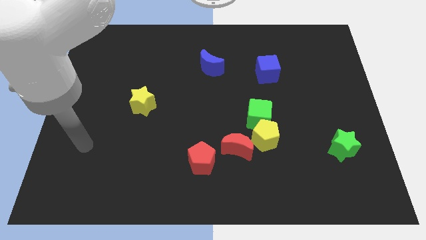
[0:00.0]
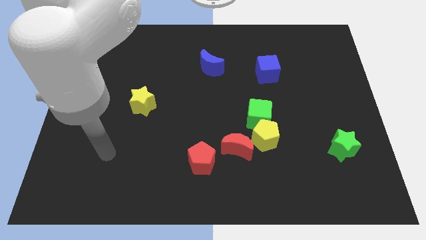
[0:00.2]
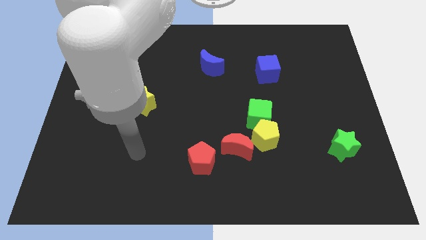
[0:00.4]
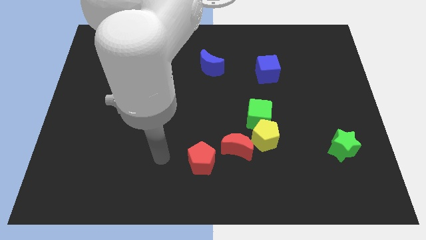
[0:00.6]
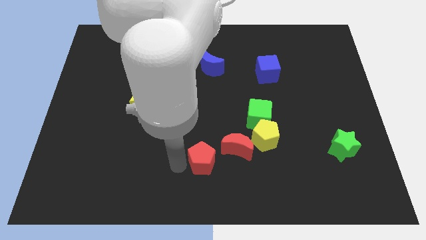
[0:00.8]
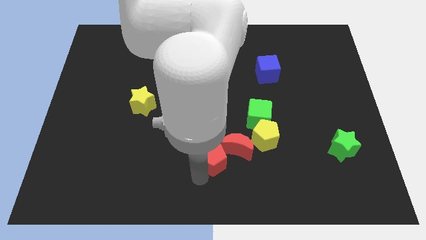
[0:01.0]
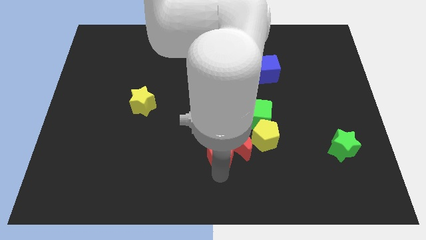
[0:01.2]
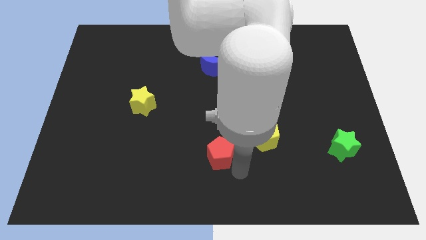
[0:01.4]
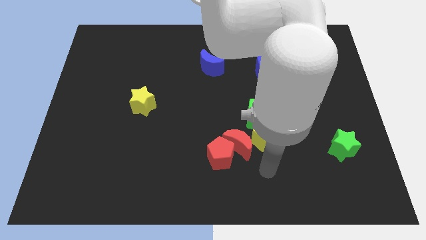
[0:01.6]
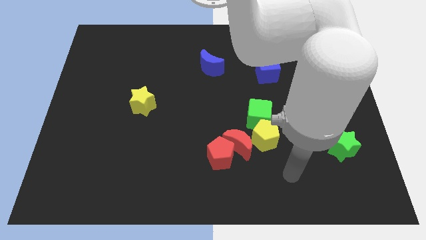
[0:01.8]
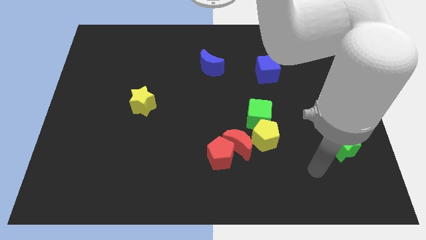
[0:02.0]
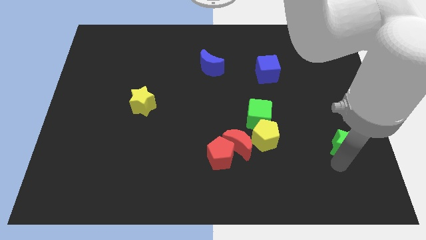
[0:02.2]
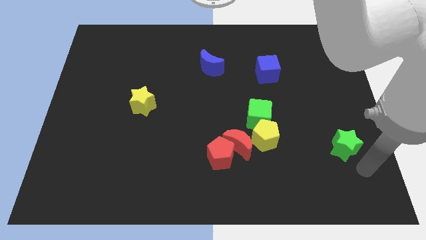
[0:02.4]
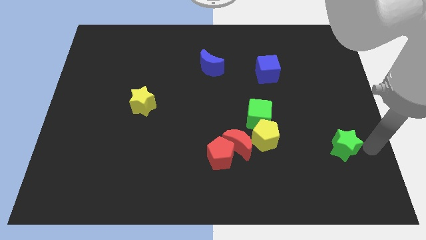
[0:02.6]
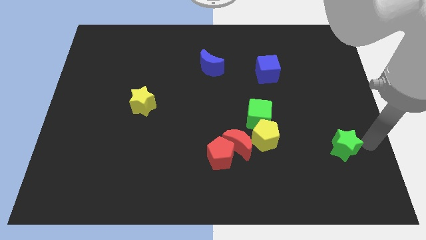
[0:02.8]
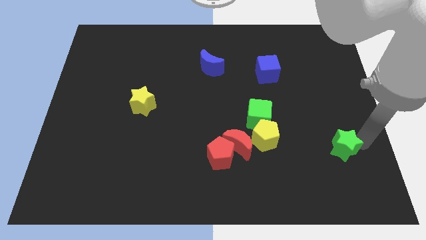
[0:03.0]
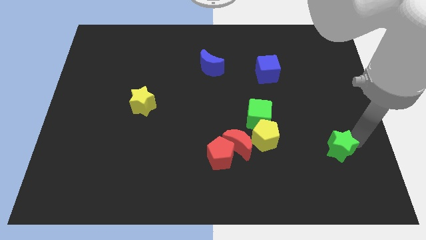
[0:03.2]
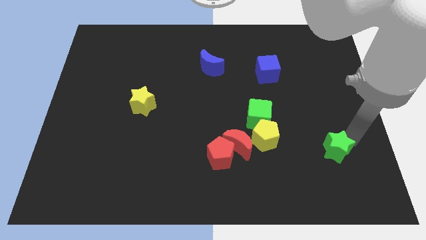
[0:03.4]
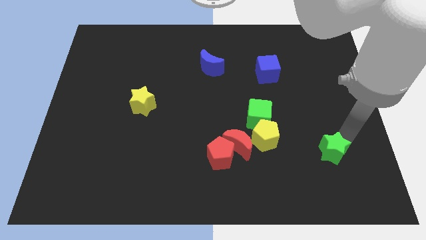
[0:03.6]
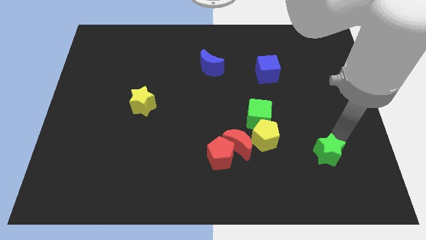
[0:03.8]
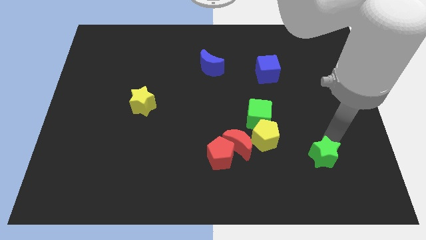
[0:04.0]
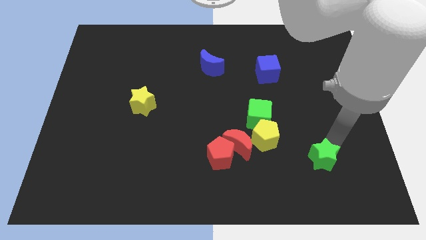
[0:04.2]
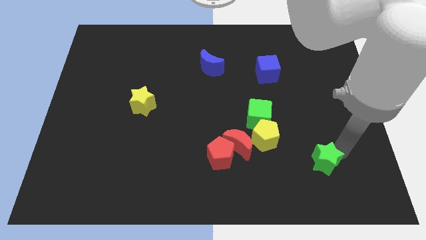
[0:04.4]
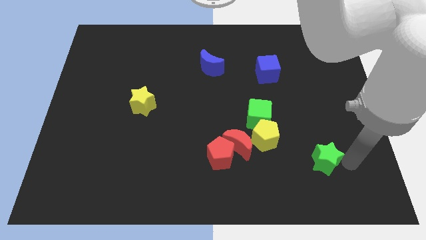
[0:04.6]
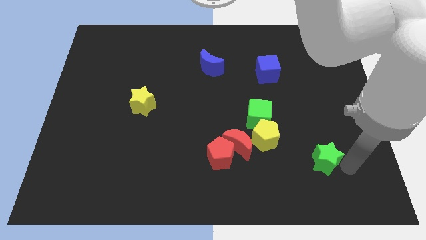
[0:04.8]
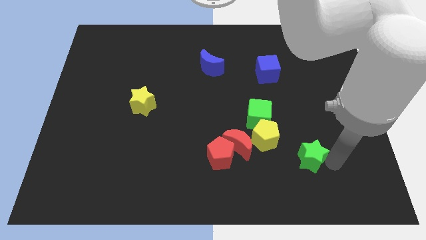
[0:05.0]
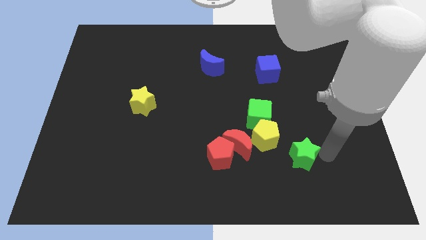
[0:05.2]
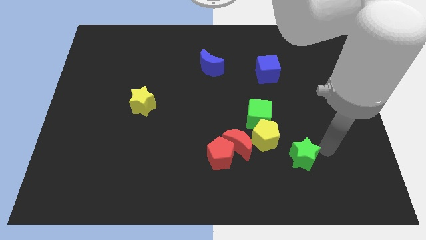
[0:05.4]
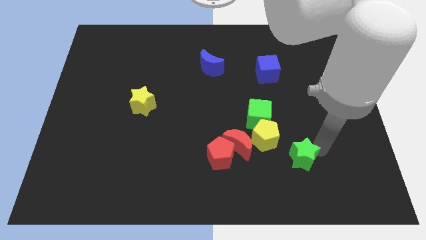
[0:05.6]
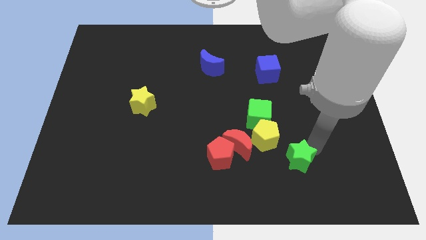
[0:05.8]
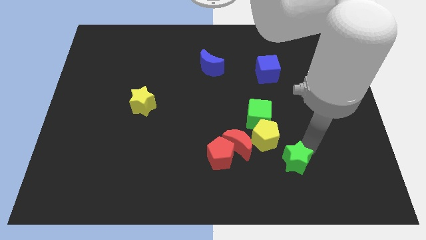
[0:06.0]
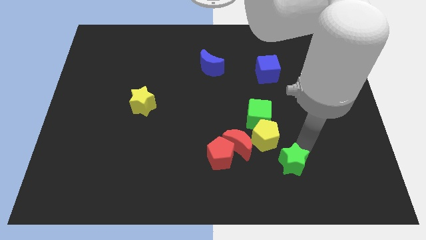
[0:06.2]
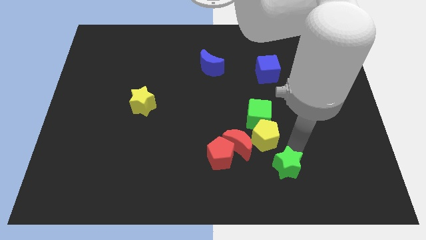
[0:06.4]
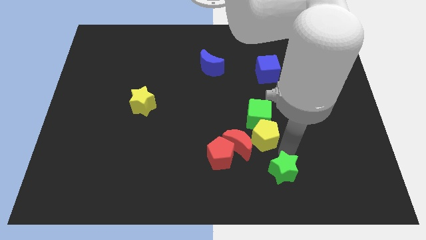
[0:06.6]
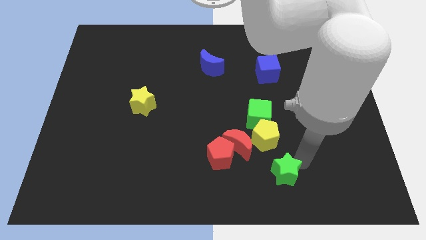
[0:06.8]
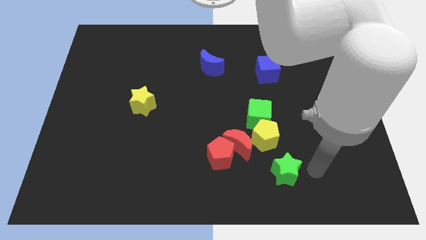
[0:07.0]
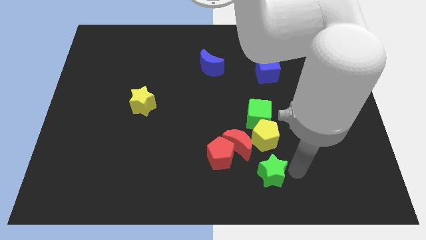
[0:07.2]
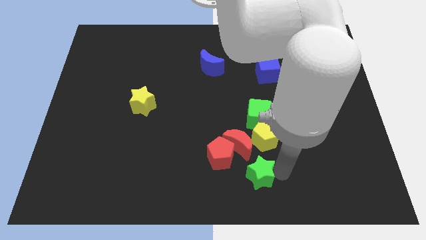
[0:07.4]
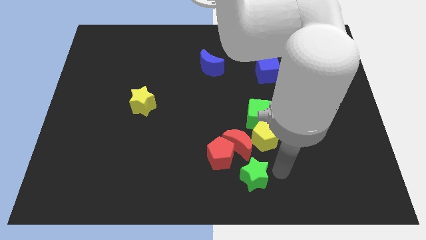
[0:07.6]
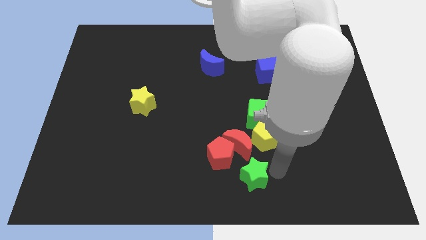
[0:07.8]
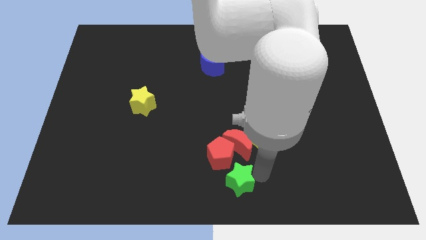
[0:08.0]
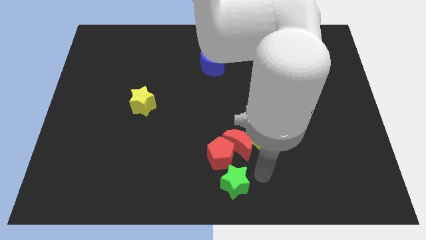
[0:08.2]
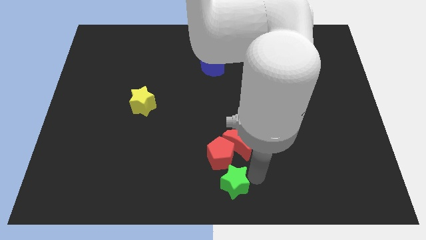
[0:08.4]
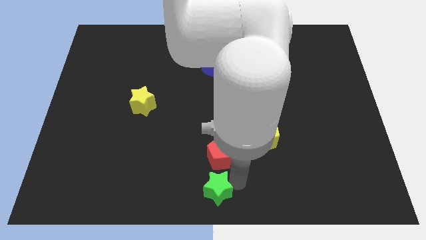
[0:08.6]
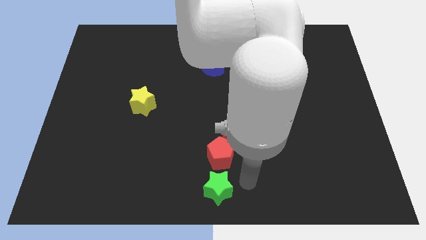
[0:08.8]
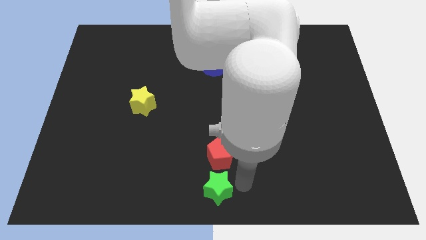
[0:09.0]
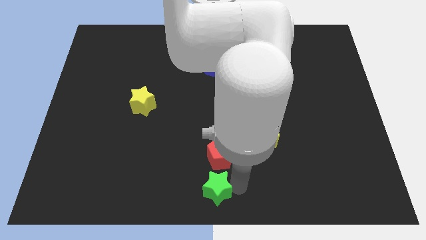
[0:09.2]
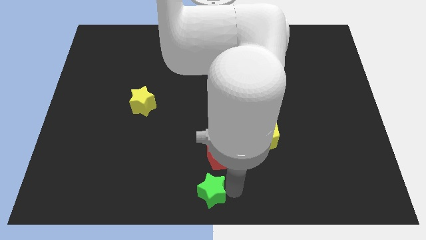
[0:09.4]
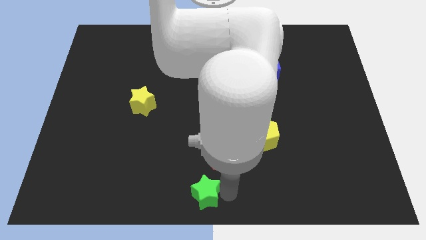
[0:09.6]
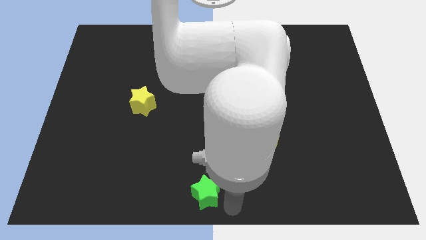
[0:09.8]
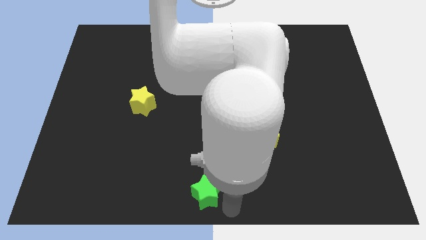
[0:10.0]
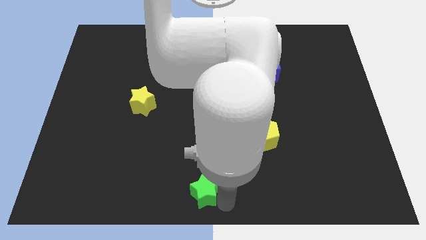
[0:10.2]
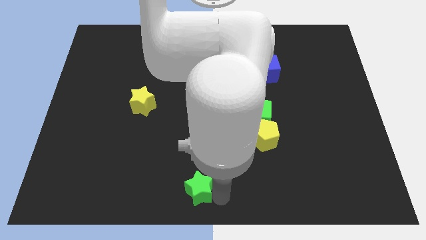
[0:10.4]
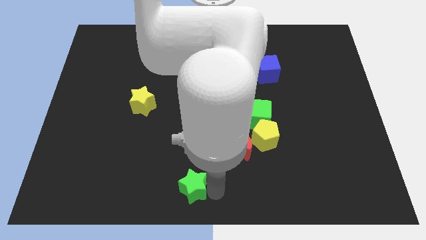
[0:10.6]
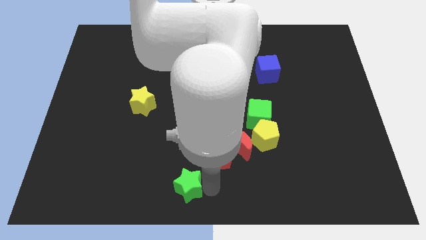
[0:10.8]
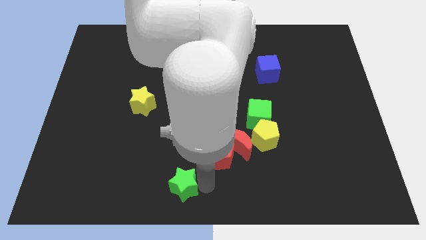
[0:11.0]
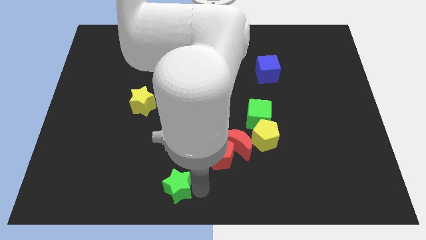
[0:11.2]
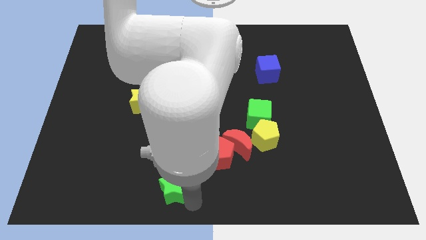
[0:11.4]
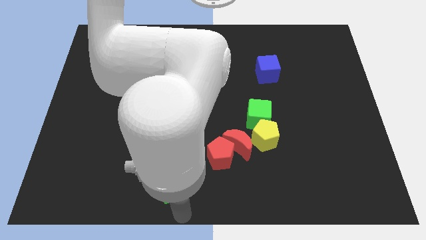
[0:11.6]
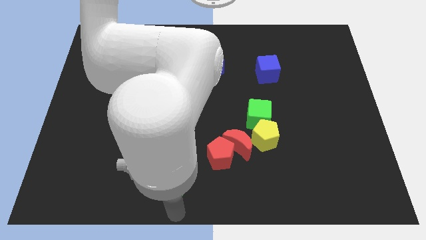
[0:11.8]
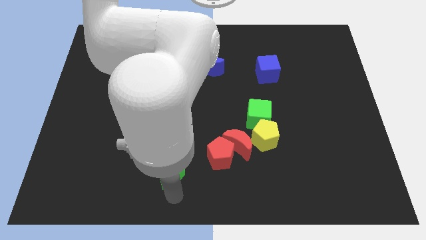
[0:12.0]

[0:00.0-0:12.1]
put the green star left of the red pentagon
